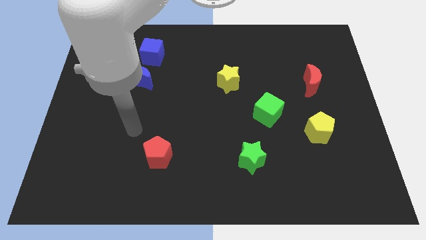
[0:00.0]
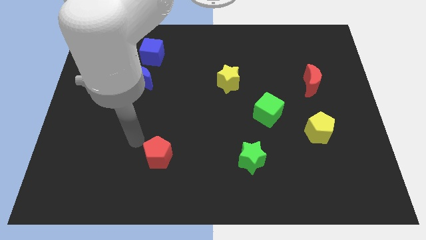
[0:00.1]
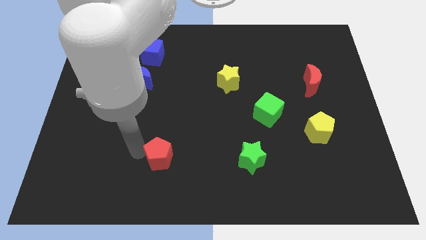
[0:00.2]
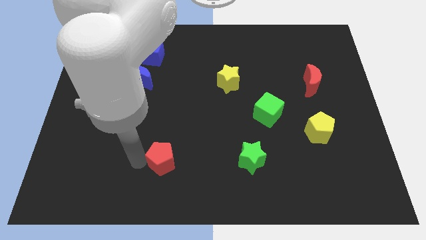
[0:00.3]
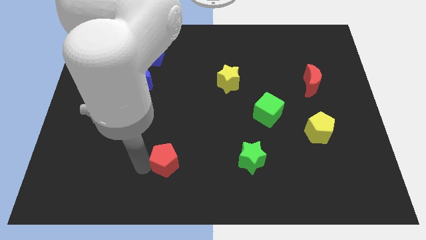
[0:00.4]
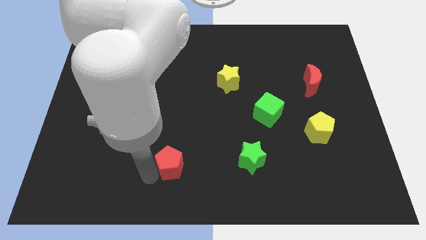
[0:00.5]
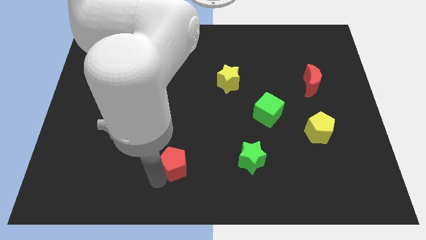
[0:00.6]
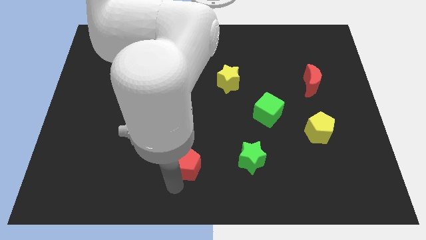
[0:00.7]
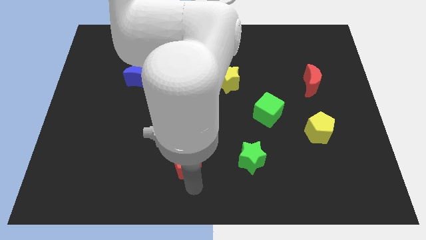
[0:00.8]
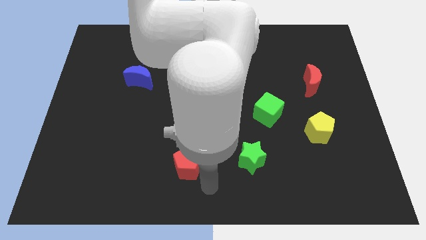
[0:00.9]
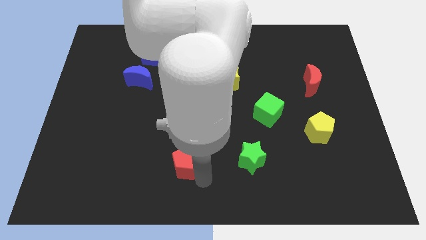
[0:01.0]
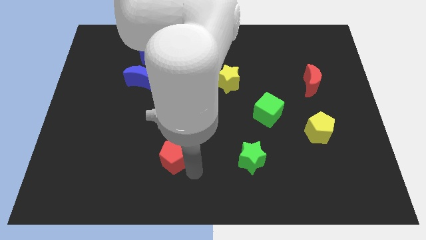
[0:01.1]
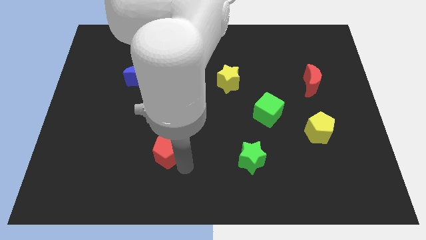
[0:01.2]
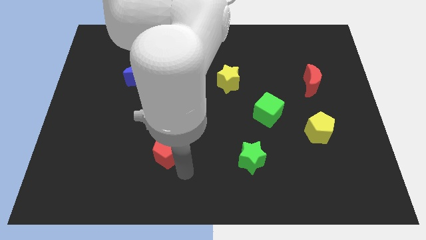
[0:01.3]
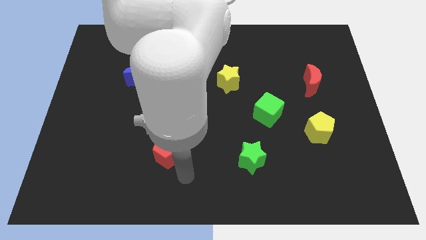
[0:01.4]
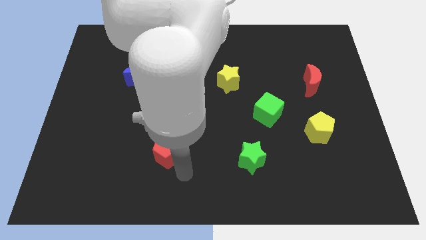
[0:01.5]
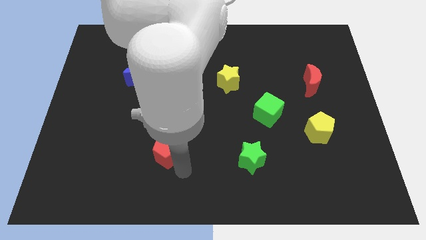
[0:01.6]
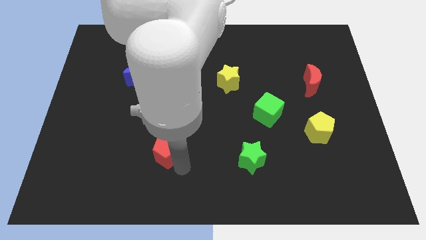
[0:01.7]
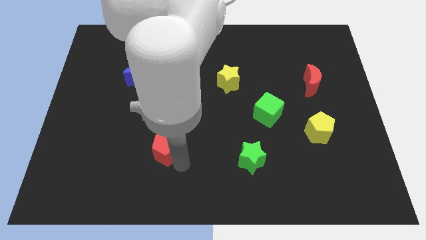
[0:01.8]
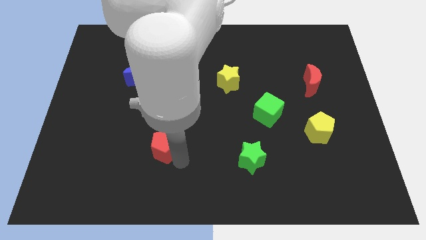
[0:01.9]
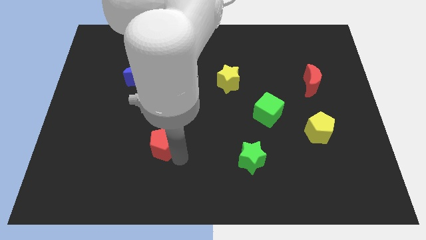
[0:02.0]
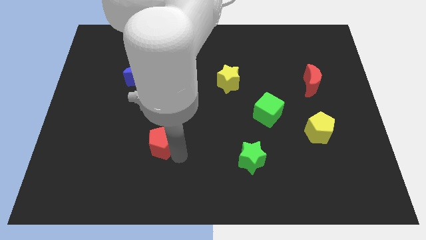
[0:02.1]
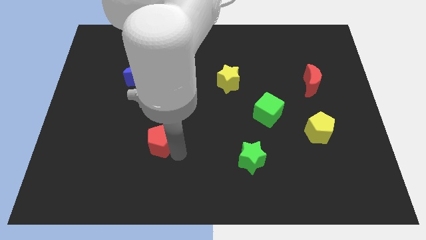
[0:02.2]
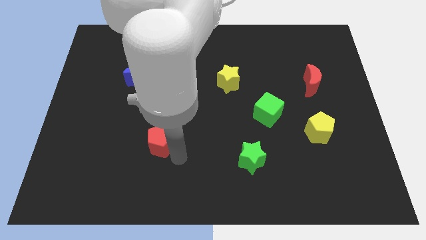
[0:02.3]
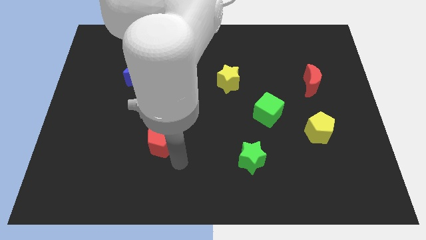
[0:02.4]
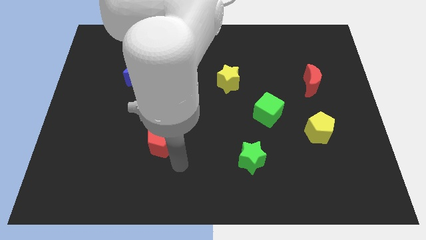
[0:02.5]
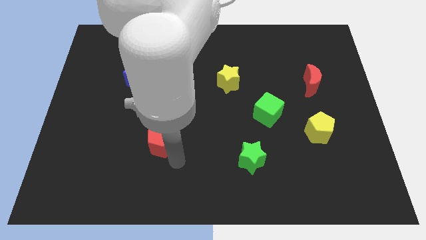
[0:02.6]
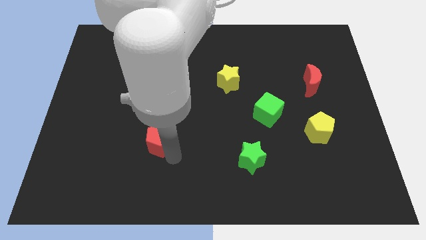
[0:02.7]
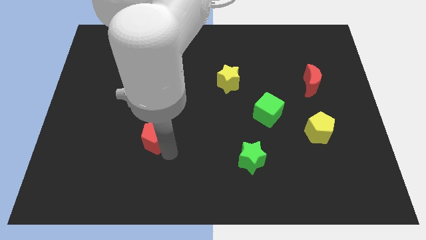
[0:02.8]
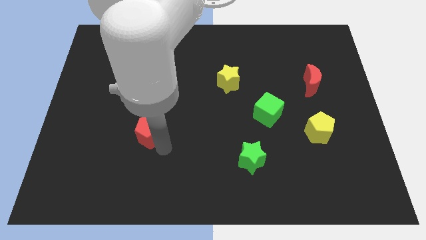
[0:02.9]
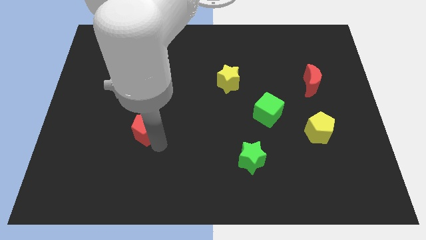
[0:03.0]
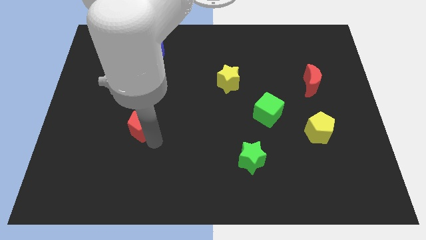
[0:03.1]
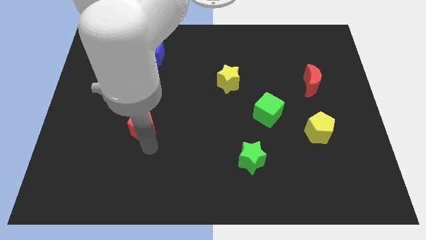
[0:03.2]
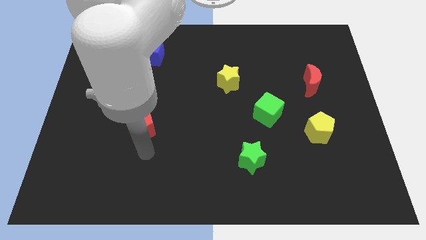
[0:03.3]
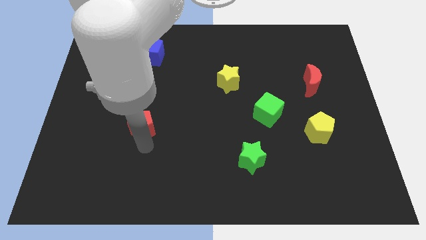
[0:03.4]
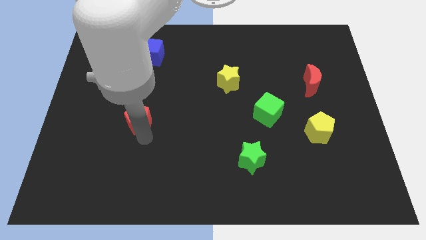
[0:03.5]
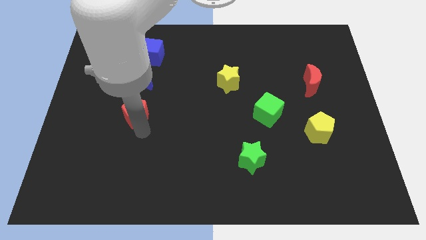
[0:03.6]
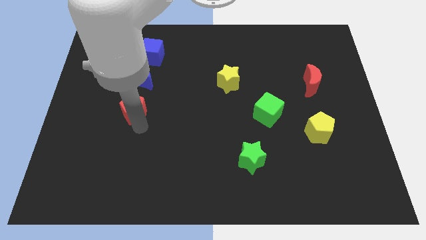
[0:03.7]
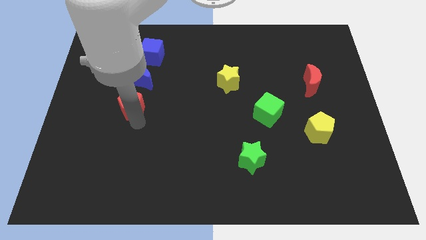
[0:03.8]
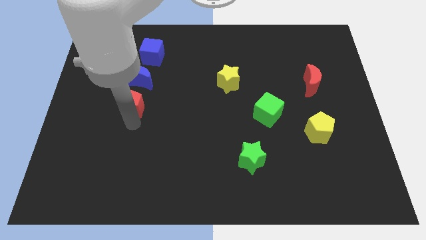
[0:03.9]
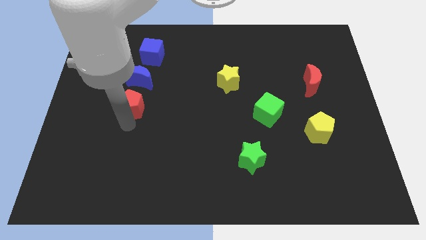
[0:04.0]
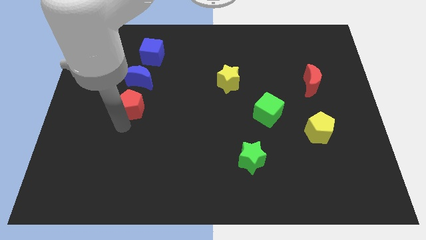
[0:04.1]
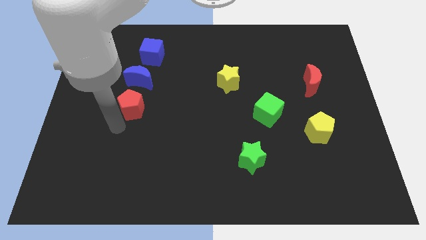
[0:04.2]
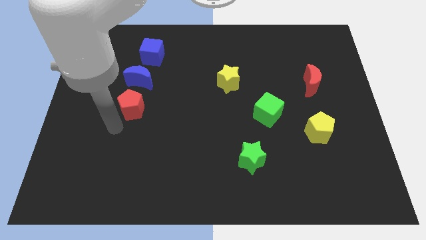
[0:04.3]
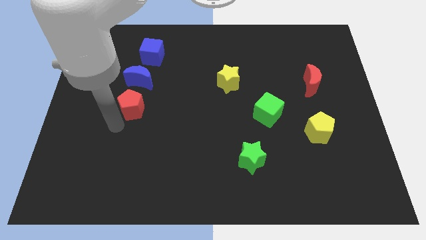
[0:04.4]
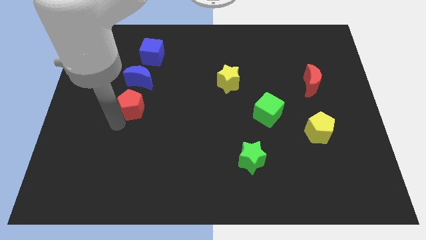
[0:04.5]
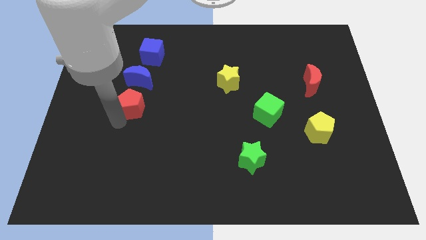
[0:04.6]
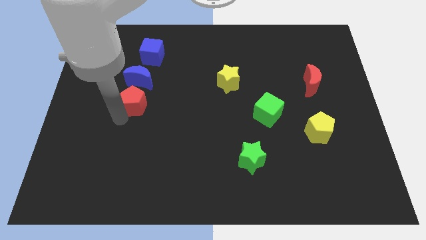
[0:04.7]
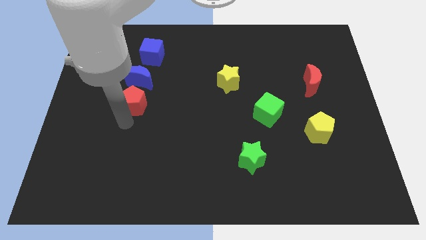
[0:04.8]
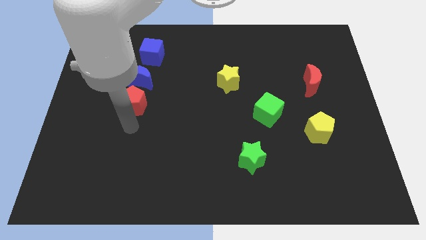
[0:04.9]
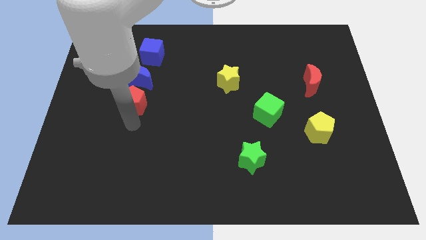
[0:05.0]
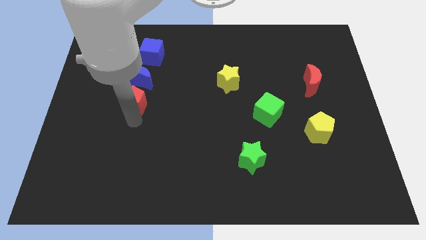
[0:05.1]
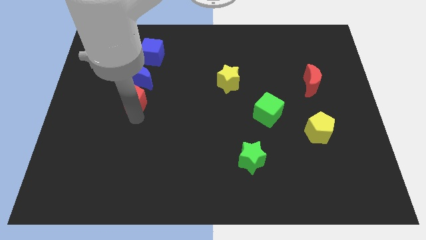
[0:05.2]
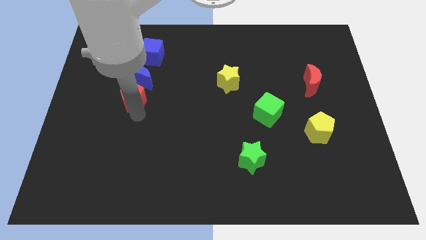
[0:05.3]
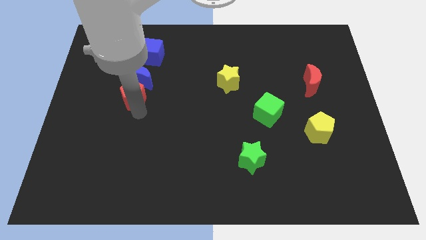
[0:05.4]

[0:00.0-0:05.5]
move the red pentagon to the blue moon

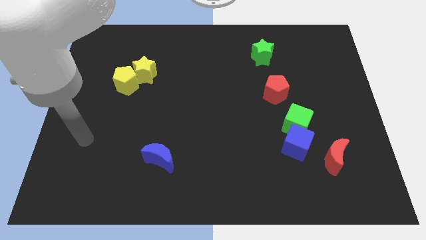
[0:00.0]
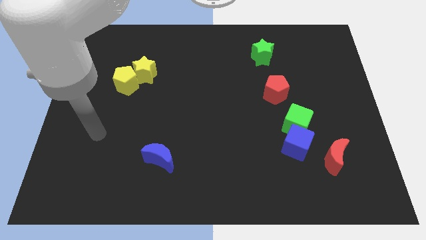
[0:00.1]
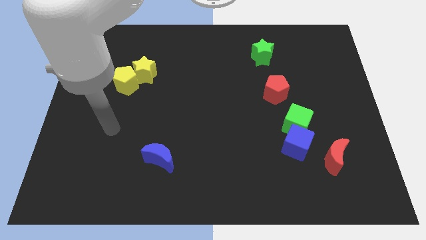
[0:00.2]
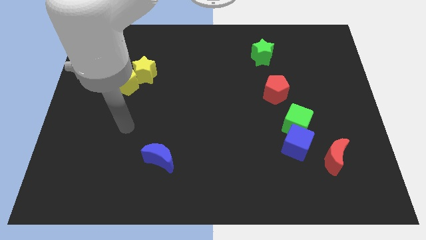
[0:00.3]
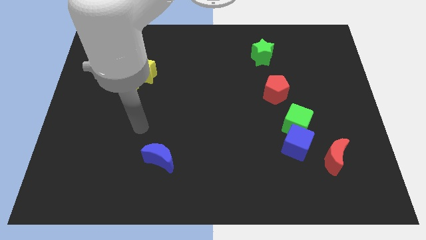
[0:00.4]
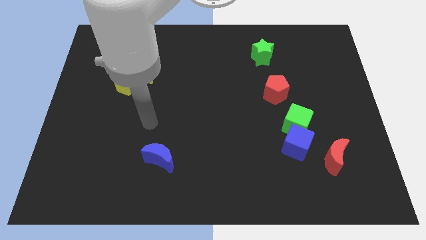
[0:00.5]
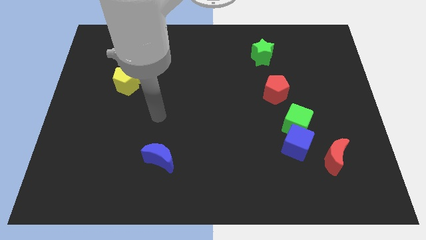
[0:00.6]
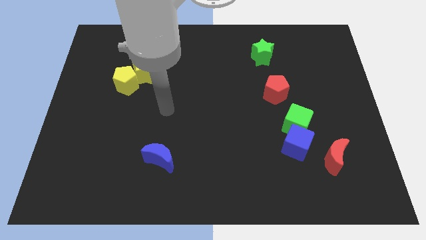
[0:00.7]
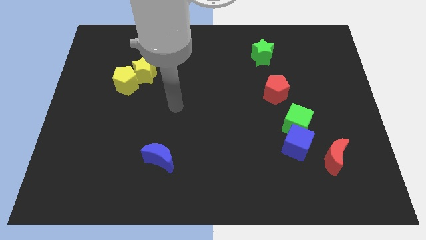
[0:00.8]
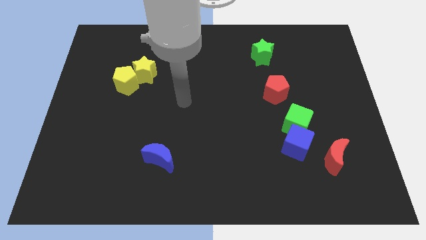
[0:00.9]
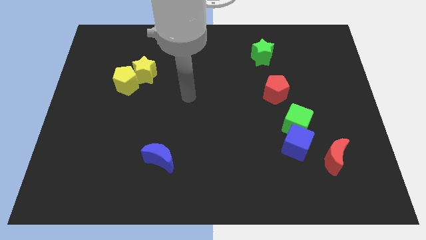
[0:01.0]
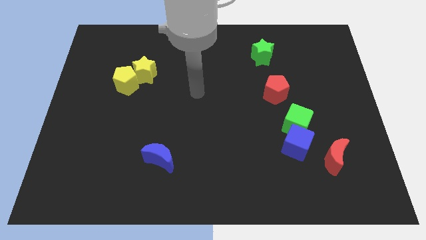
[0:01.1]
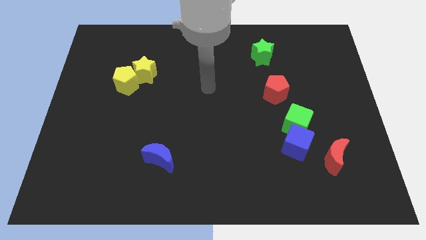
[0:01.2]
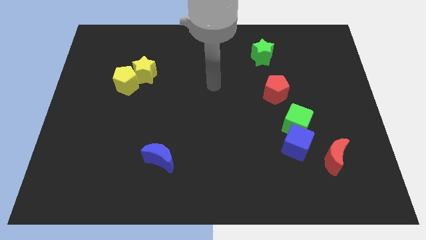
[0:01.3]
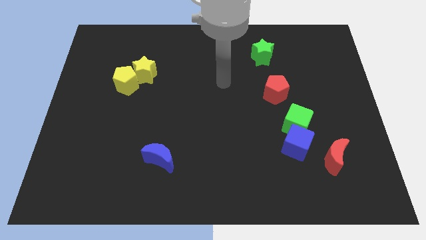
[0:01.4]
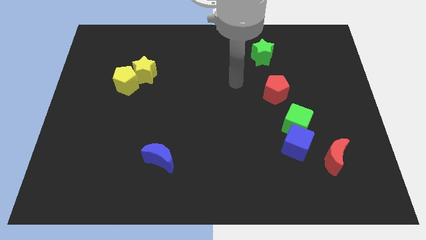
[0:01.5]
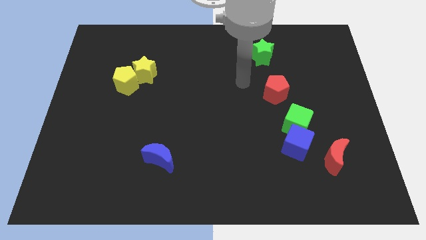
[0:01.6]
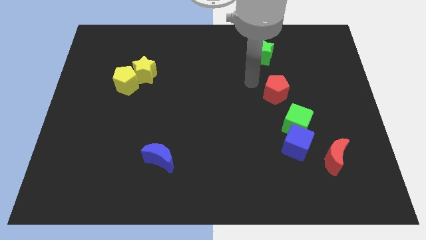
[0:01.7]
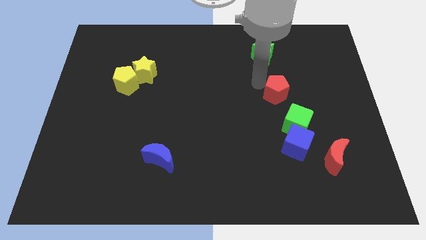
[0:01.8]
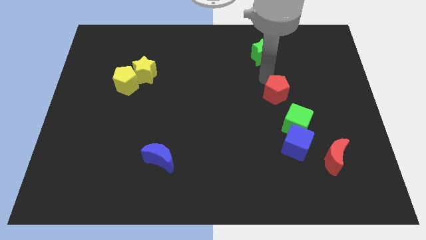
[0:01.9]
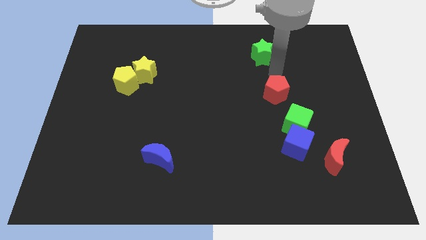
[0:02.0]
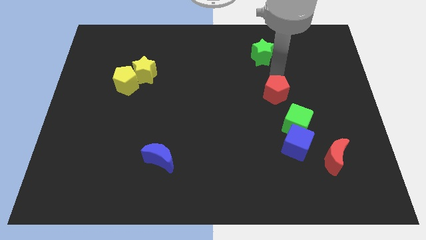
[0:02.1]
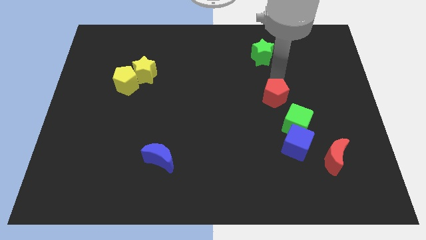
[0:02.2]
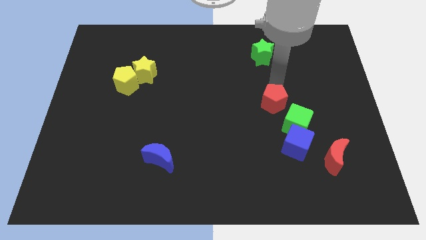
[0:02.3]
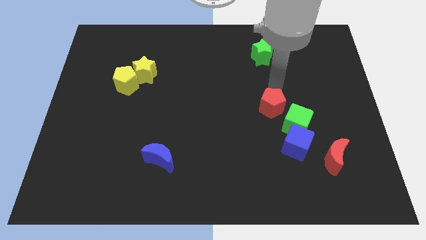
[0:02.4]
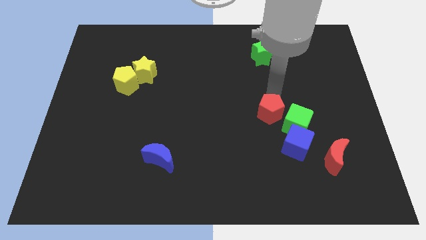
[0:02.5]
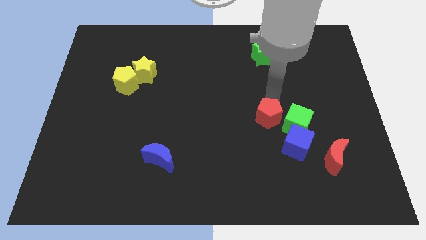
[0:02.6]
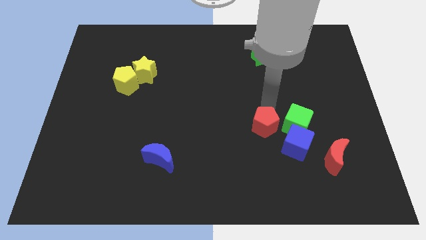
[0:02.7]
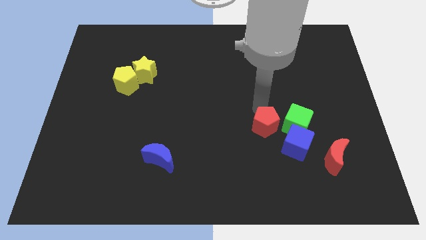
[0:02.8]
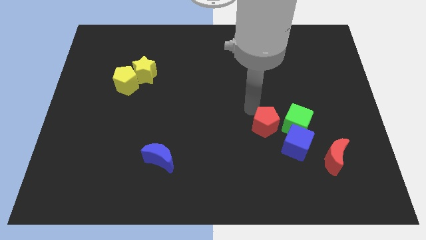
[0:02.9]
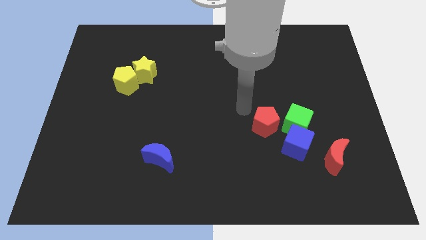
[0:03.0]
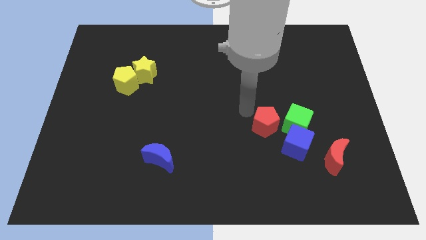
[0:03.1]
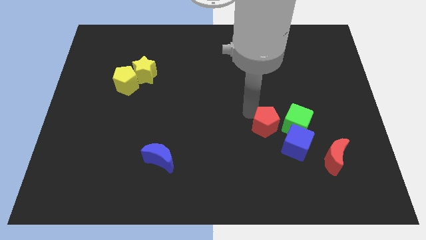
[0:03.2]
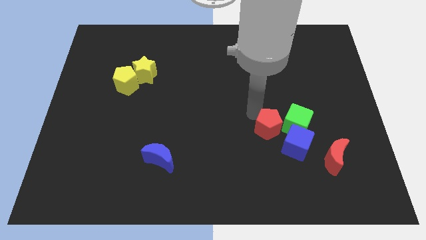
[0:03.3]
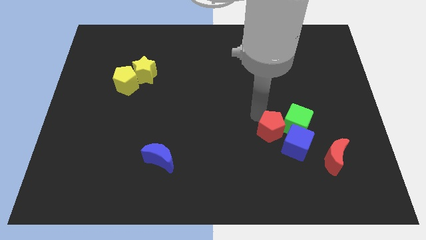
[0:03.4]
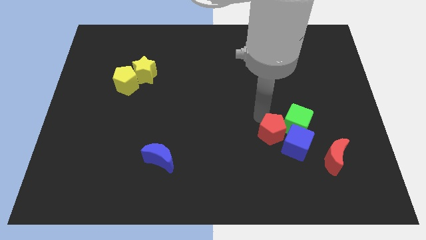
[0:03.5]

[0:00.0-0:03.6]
push the red pentagon towards the blue cube
